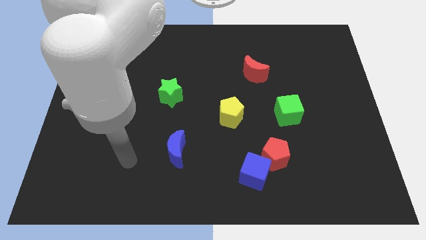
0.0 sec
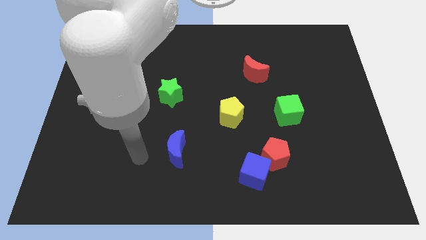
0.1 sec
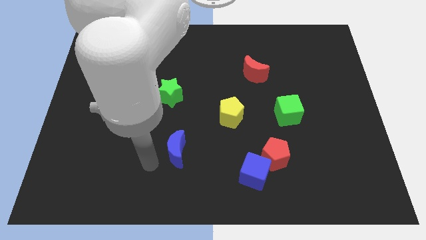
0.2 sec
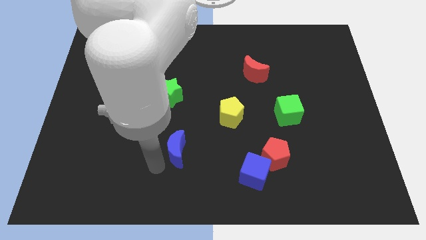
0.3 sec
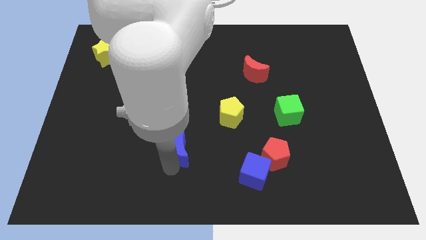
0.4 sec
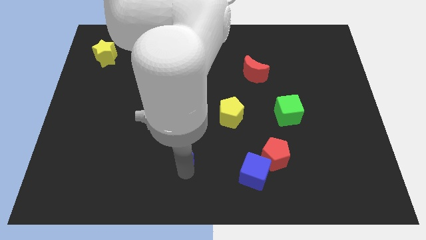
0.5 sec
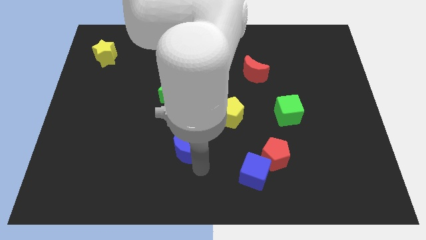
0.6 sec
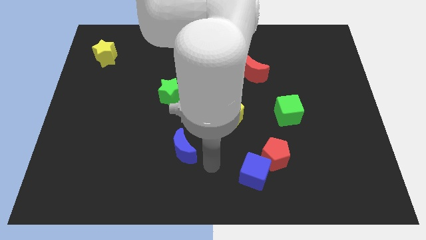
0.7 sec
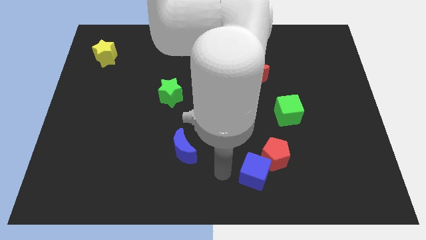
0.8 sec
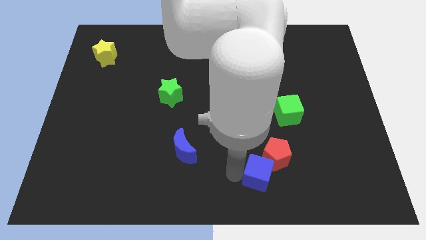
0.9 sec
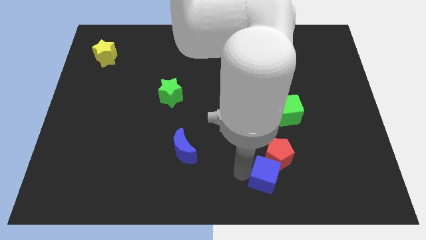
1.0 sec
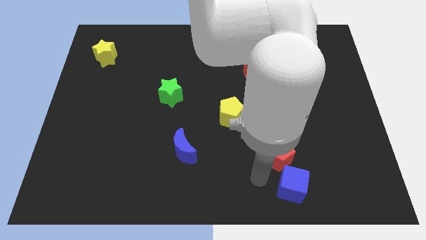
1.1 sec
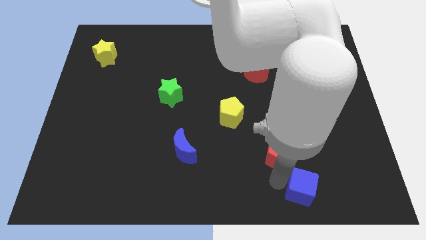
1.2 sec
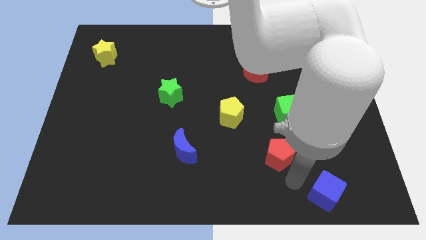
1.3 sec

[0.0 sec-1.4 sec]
separate the red pentagon from the blue cube

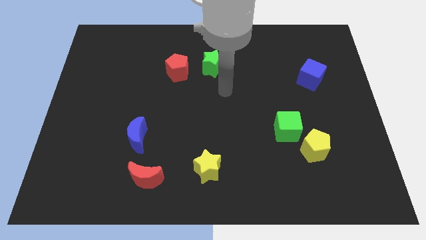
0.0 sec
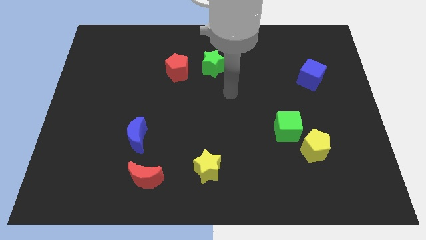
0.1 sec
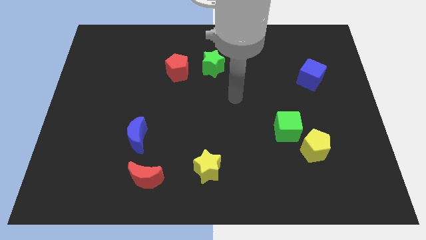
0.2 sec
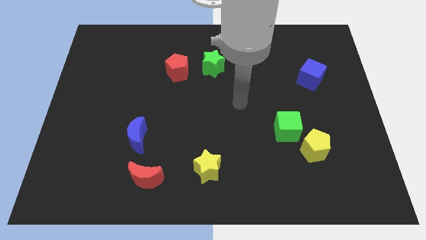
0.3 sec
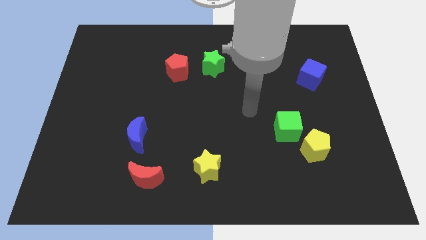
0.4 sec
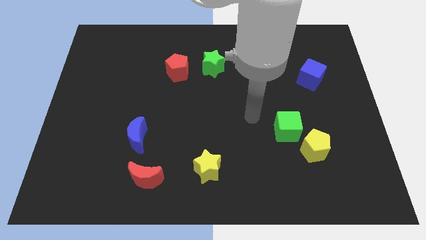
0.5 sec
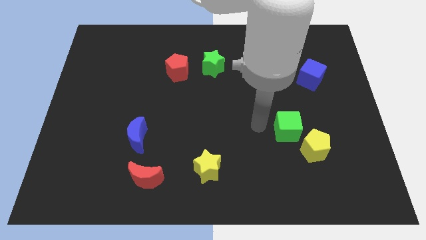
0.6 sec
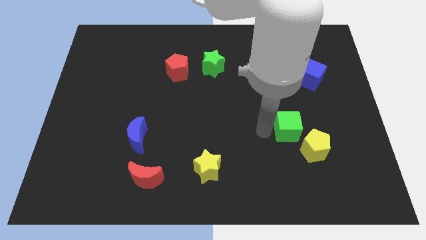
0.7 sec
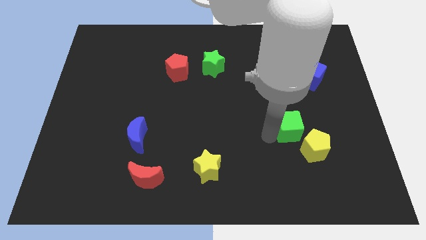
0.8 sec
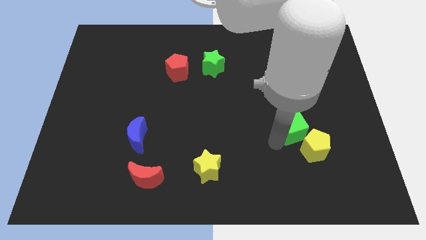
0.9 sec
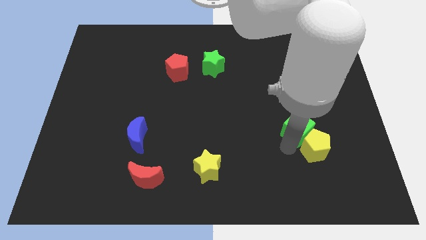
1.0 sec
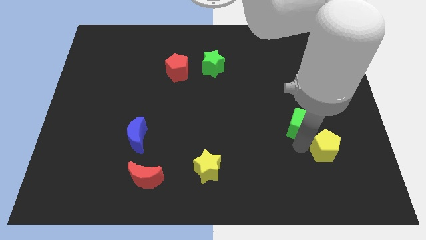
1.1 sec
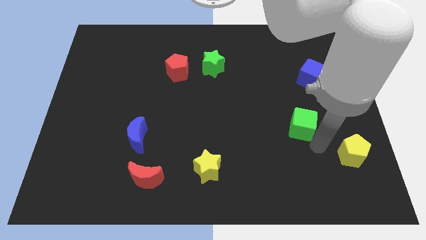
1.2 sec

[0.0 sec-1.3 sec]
pull the green cube apart from the yellow pentagon

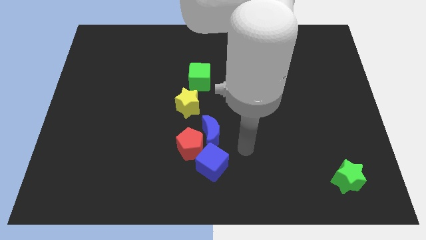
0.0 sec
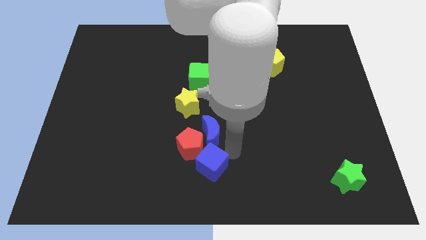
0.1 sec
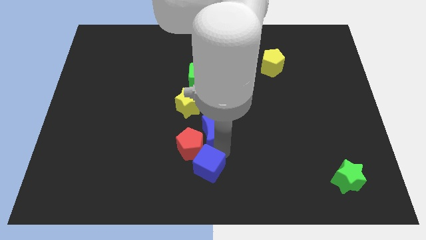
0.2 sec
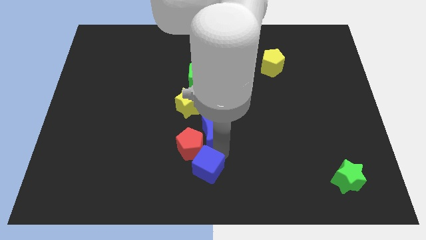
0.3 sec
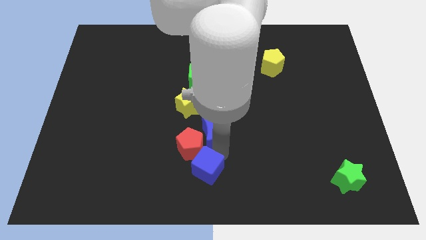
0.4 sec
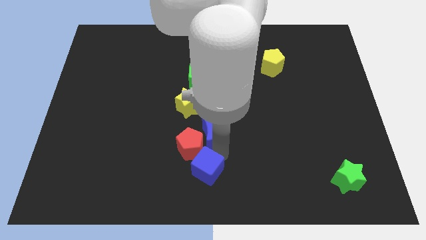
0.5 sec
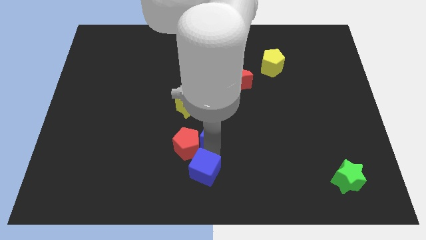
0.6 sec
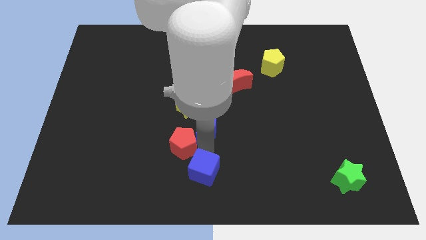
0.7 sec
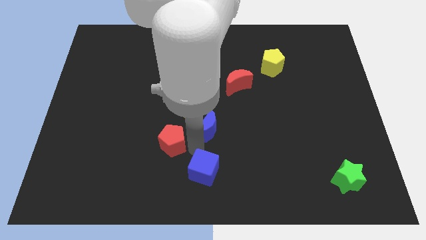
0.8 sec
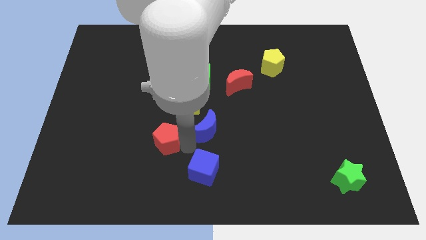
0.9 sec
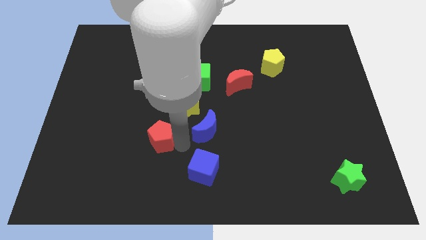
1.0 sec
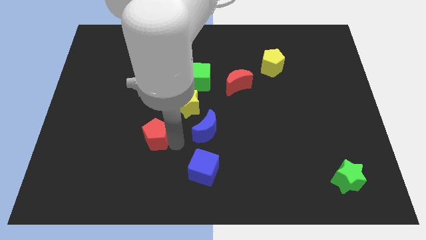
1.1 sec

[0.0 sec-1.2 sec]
pull the red pentagon apart from the blue moon and blue cube

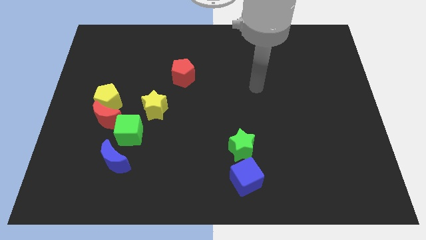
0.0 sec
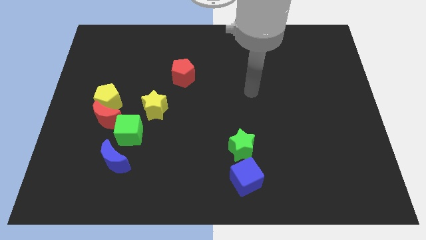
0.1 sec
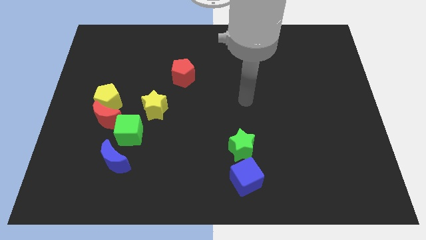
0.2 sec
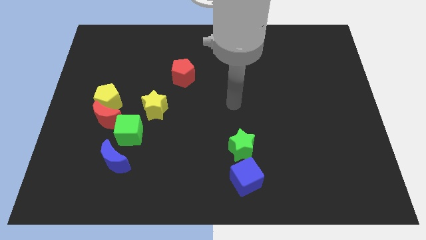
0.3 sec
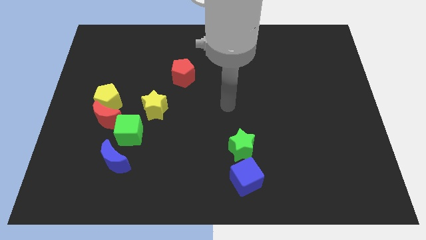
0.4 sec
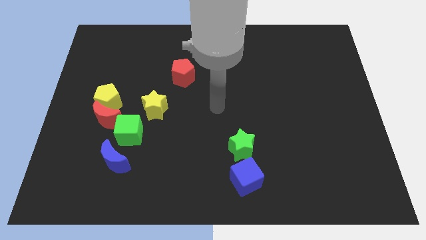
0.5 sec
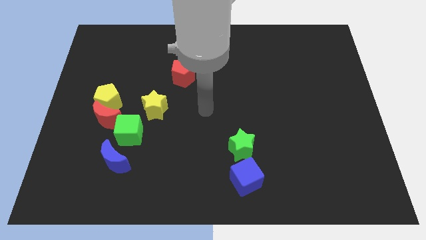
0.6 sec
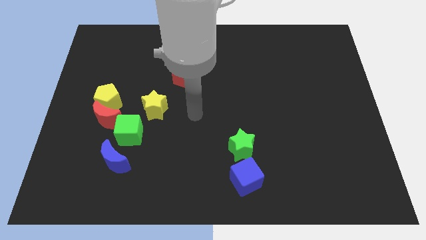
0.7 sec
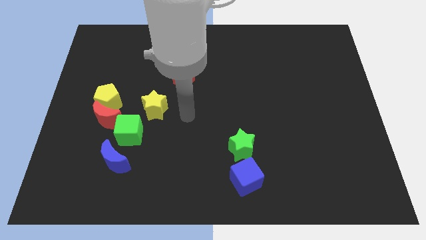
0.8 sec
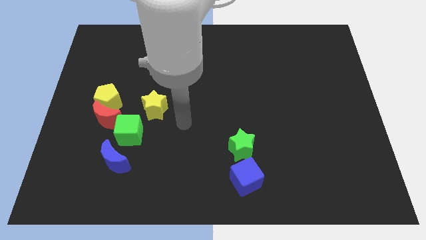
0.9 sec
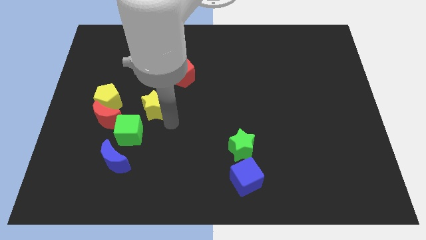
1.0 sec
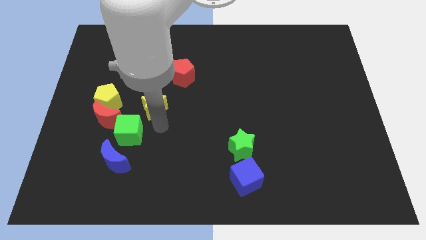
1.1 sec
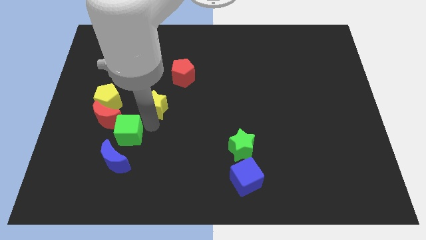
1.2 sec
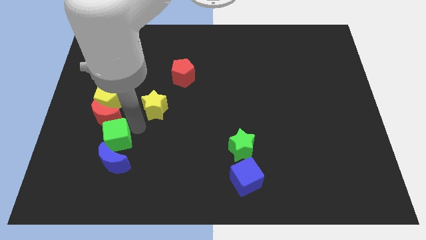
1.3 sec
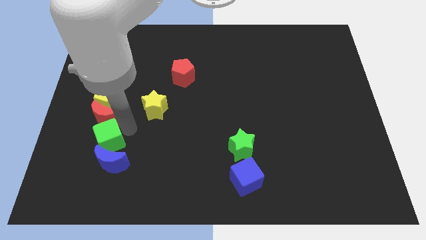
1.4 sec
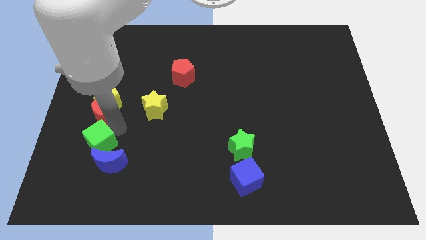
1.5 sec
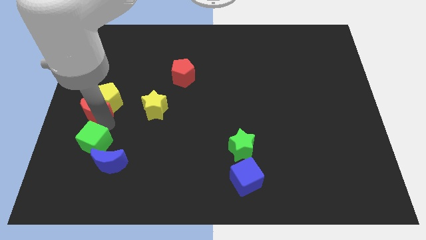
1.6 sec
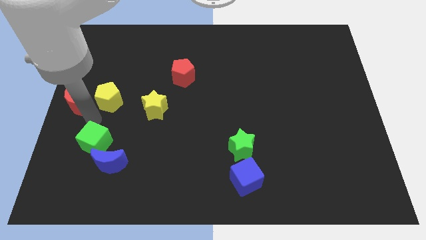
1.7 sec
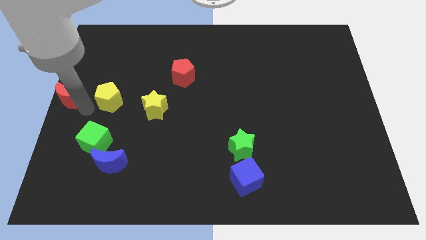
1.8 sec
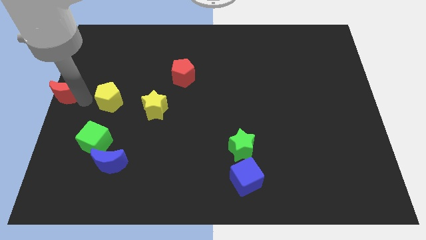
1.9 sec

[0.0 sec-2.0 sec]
move the yellow pentagon away from the red moon

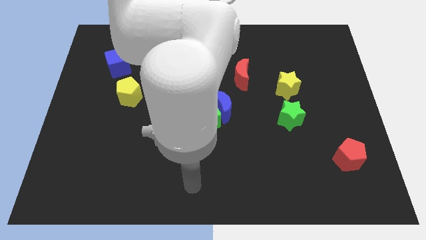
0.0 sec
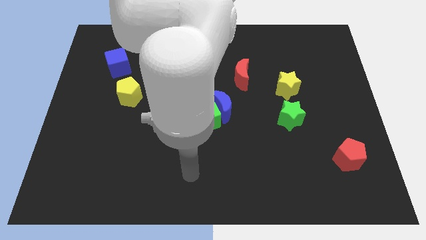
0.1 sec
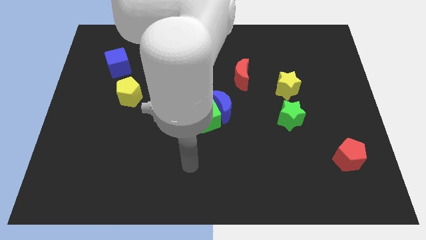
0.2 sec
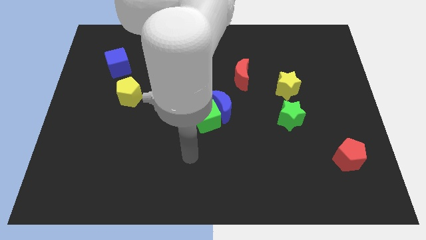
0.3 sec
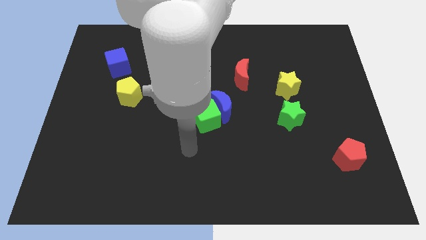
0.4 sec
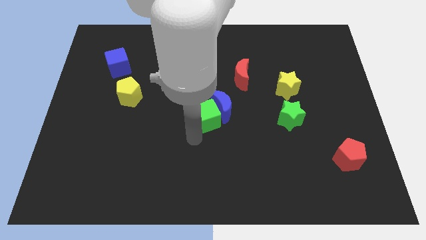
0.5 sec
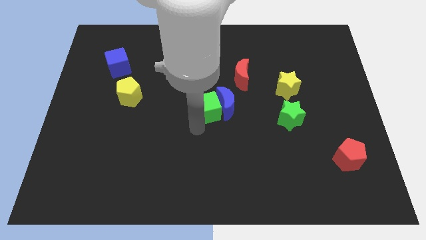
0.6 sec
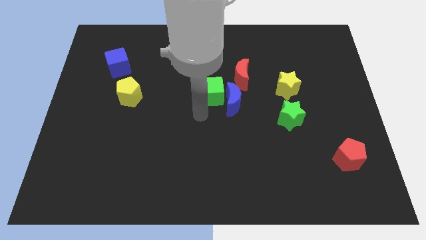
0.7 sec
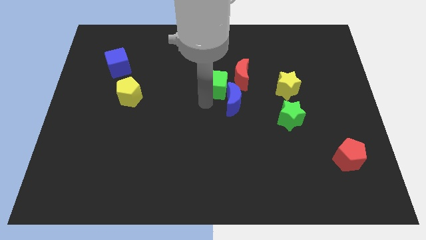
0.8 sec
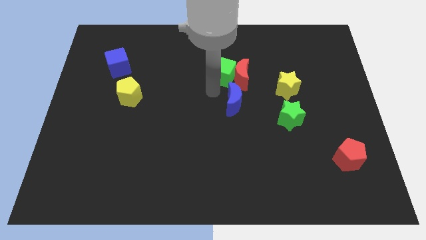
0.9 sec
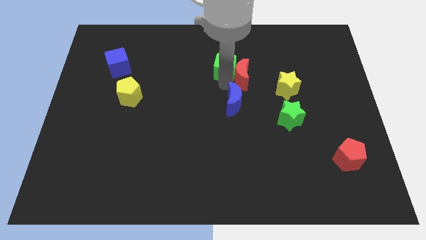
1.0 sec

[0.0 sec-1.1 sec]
pull the blue moon apart from the green cube

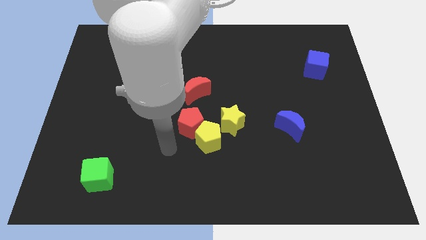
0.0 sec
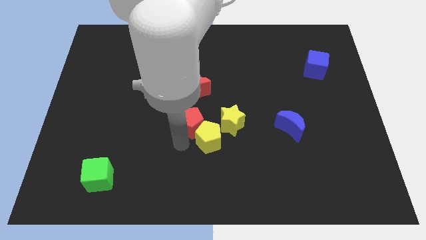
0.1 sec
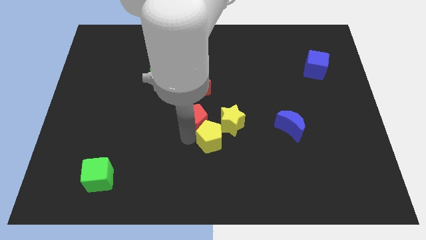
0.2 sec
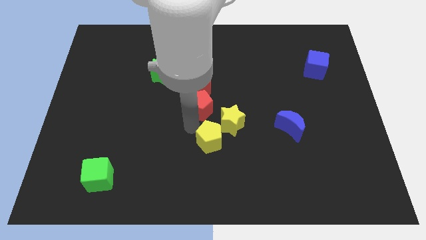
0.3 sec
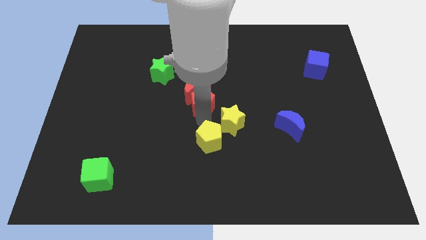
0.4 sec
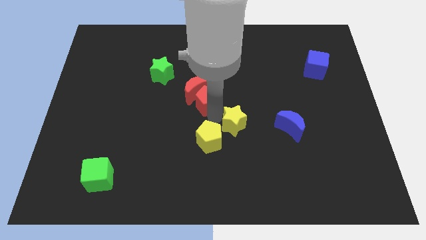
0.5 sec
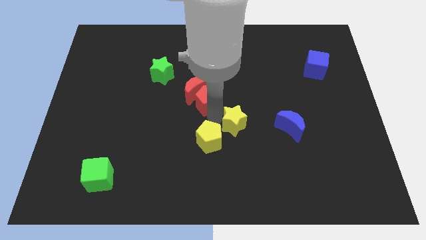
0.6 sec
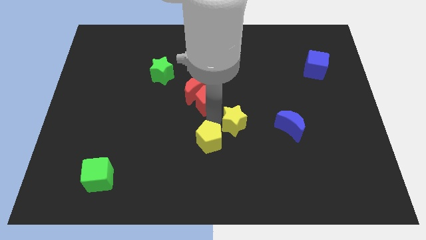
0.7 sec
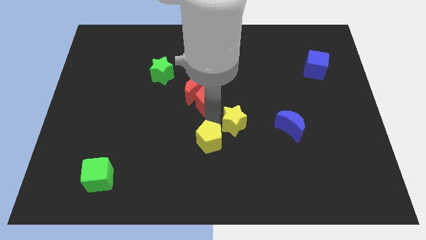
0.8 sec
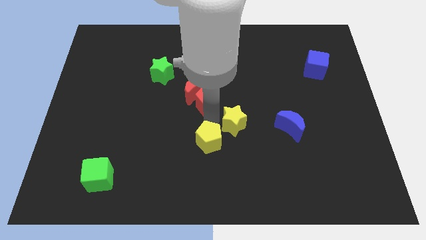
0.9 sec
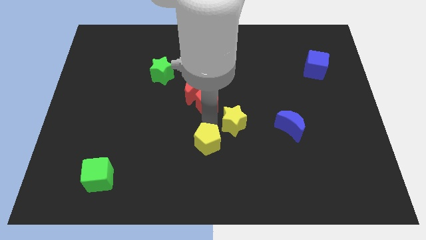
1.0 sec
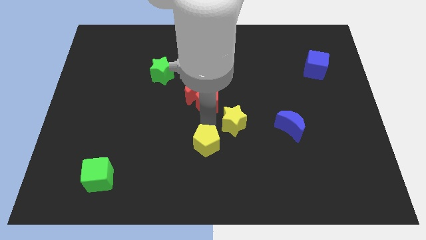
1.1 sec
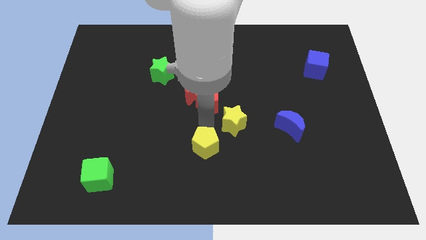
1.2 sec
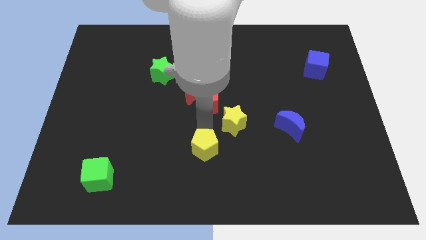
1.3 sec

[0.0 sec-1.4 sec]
separate the yellow pentagon from the red pentagon and yellow star

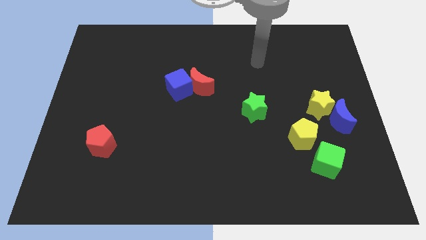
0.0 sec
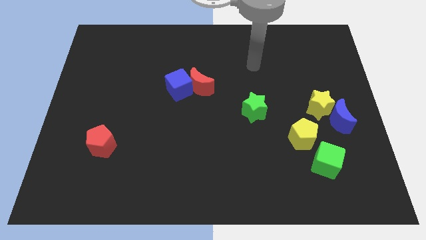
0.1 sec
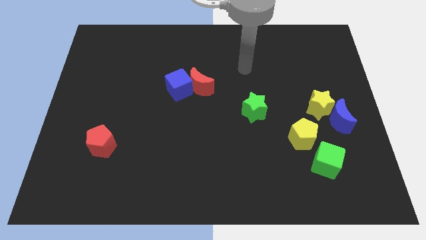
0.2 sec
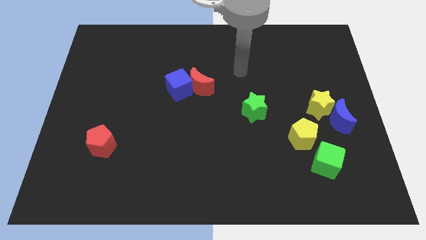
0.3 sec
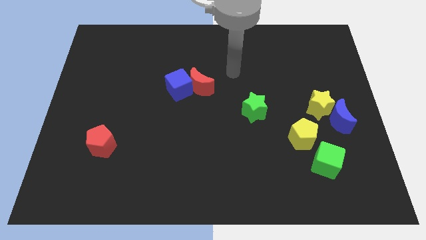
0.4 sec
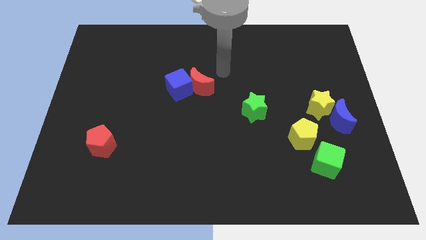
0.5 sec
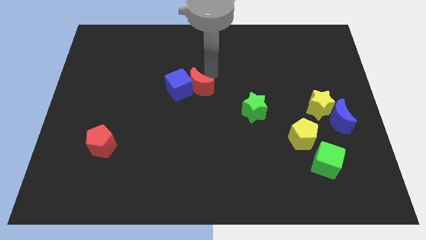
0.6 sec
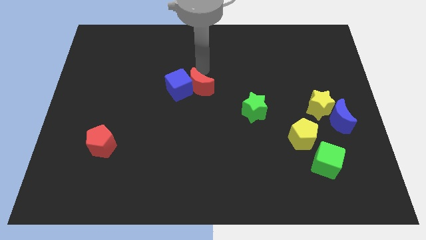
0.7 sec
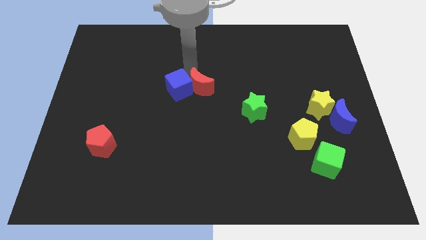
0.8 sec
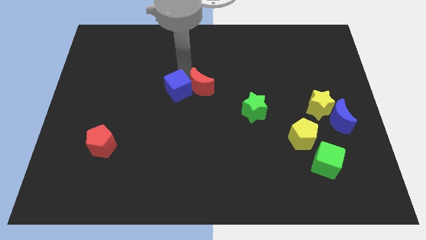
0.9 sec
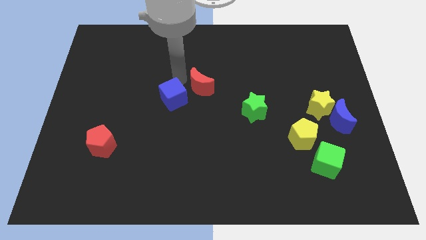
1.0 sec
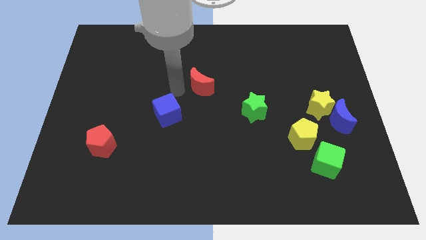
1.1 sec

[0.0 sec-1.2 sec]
pull the red moon apart from the blue cube
